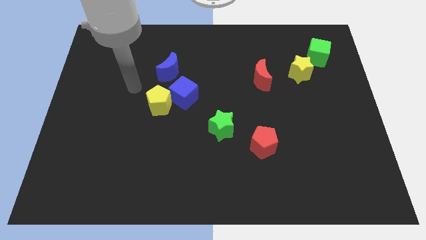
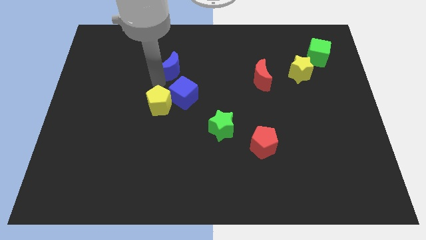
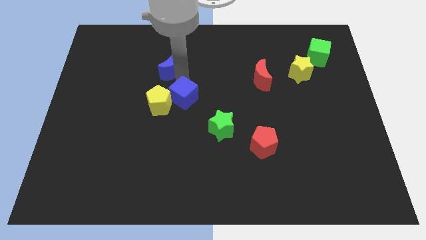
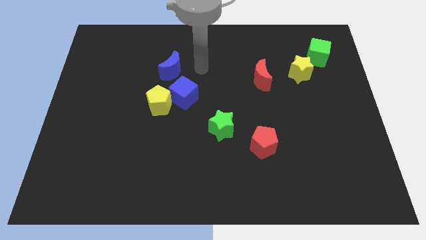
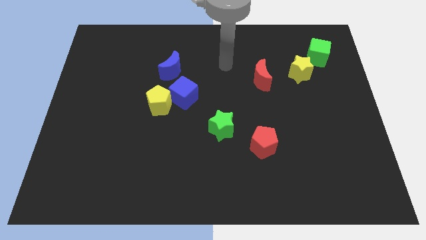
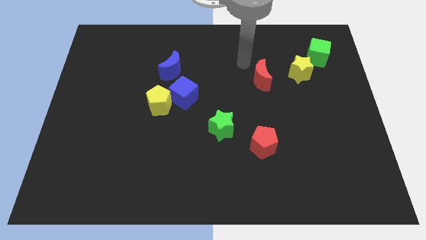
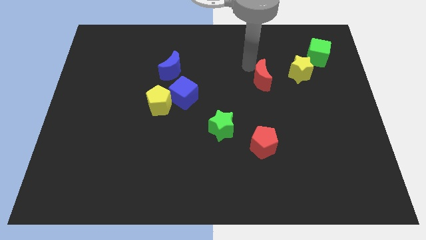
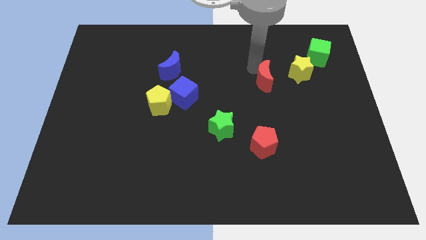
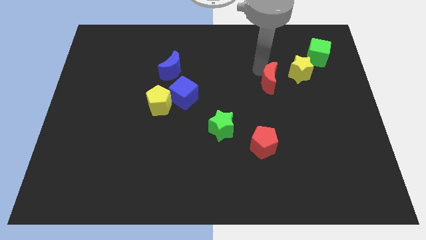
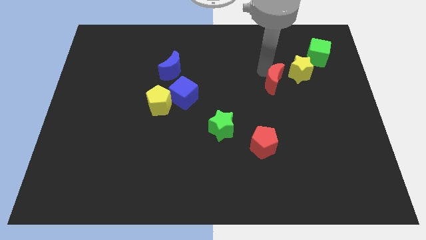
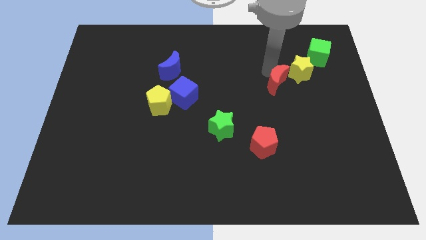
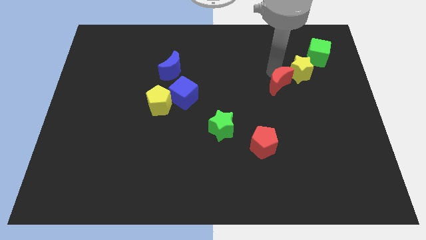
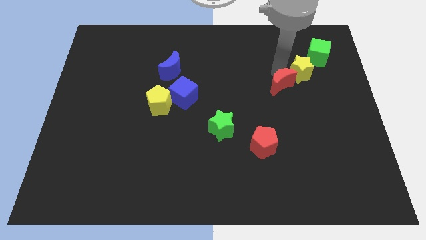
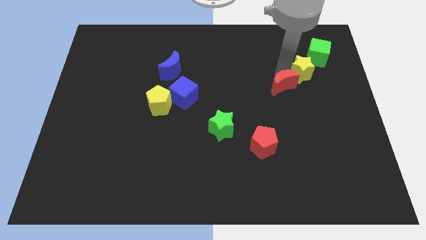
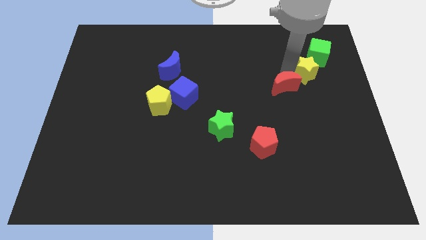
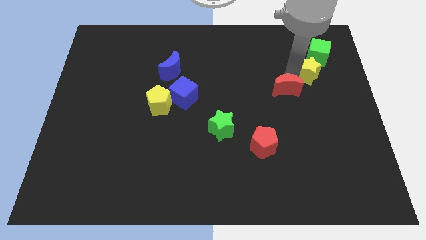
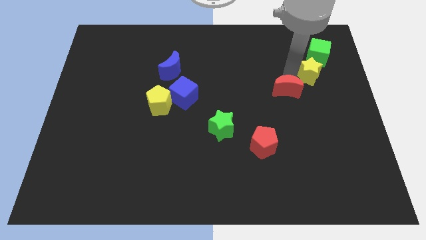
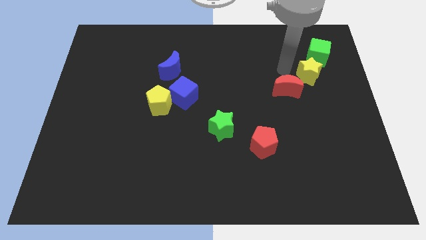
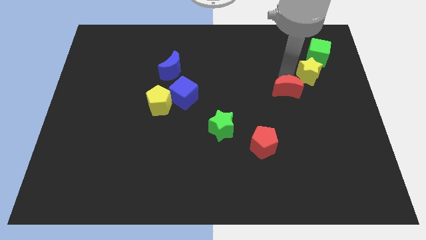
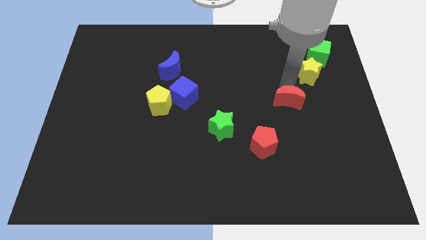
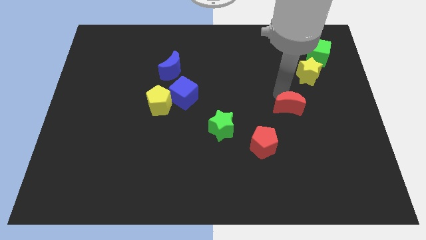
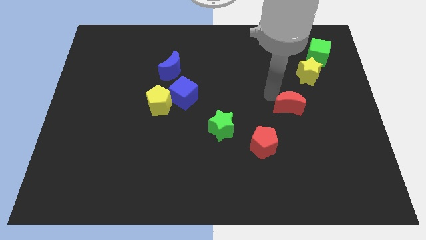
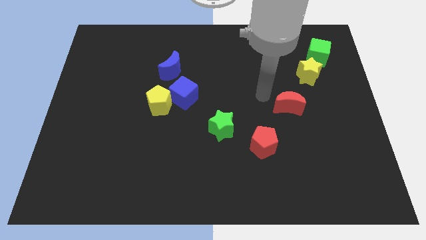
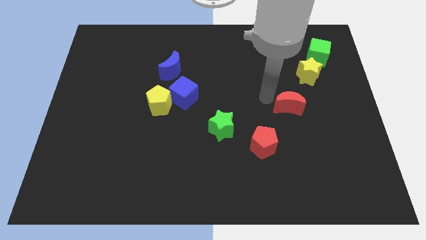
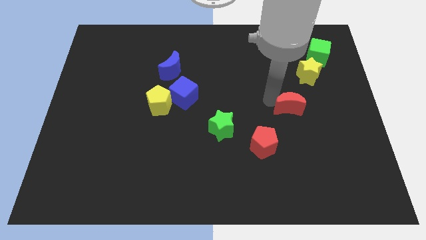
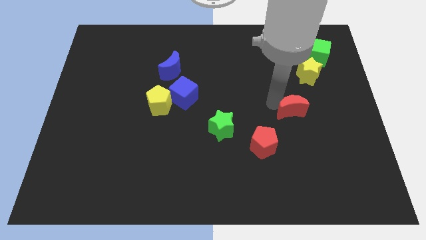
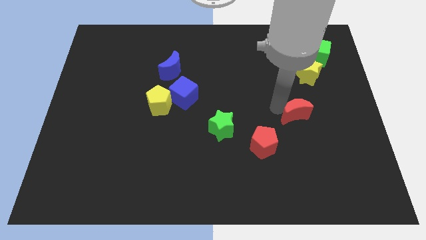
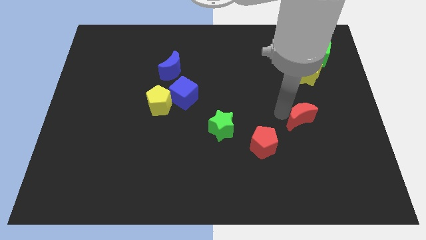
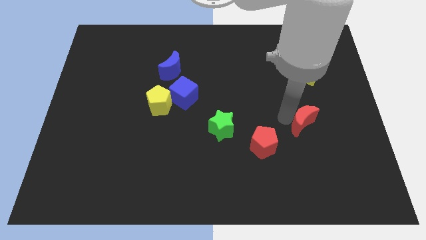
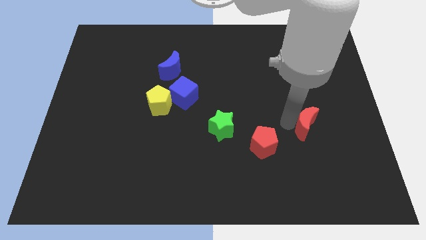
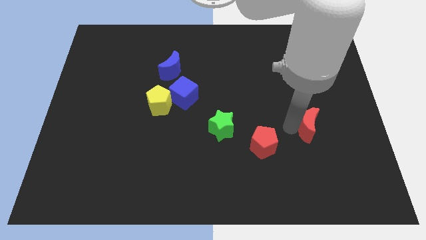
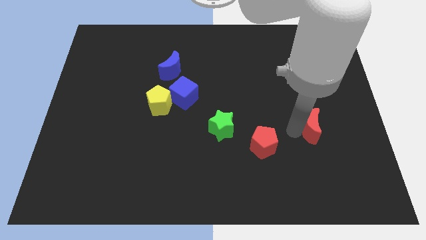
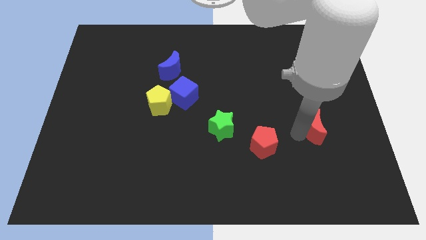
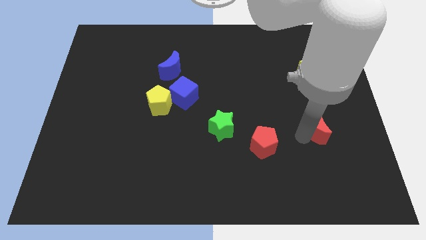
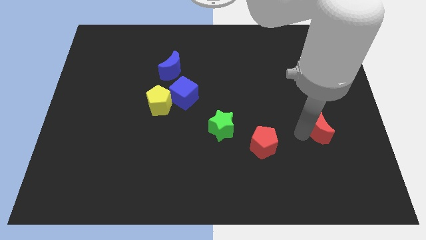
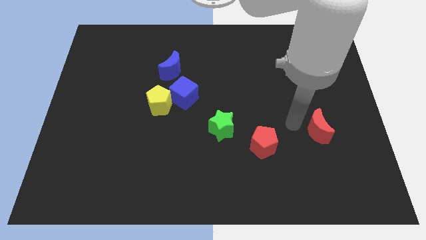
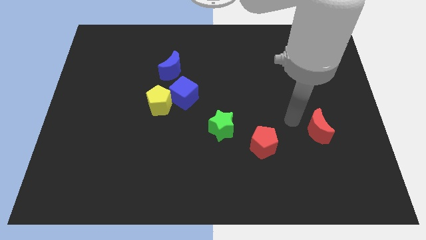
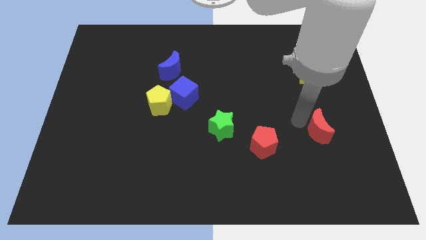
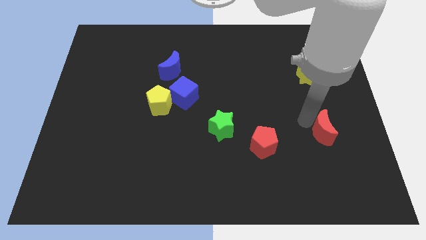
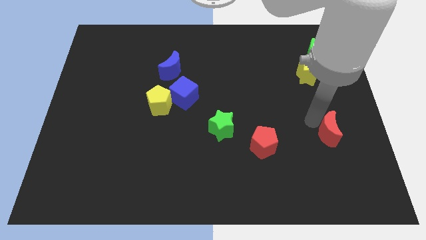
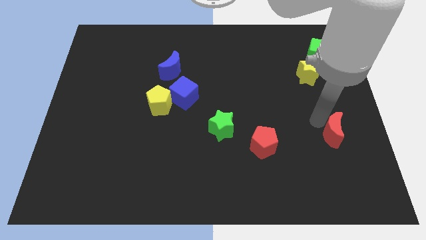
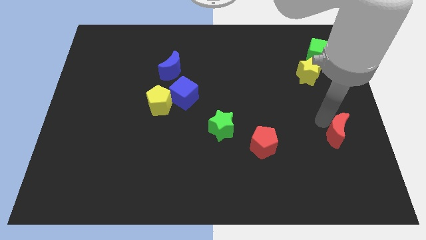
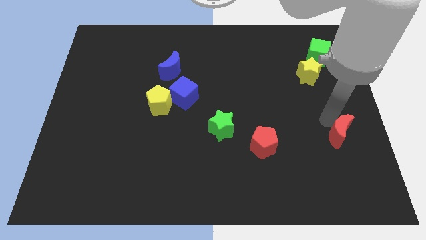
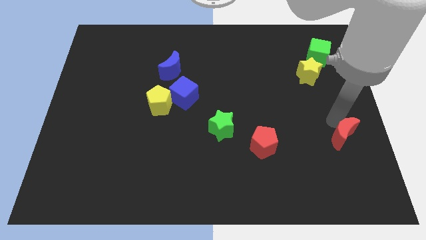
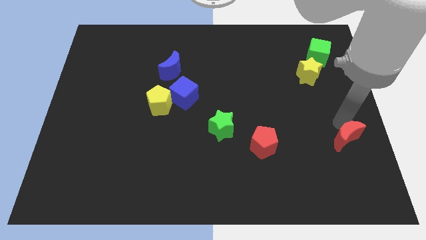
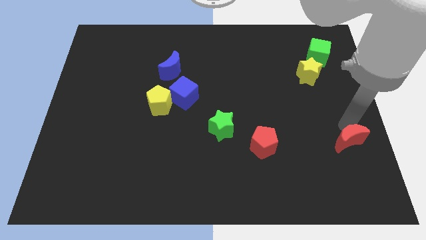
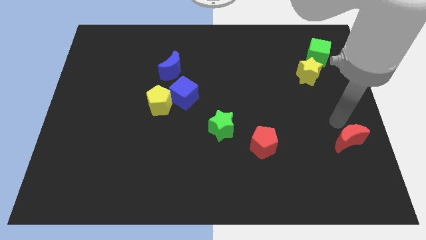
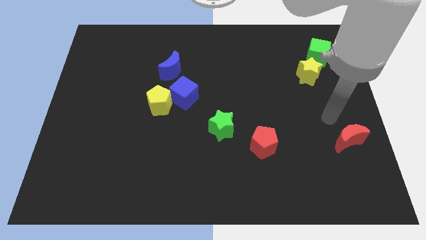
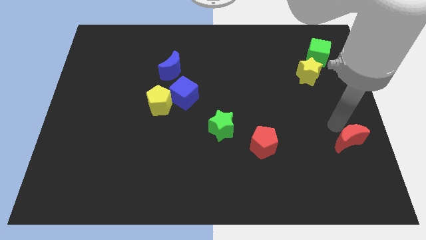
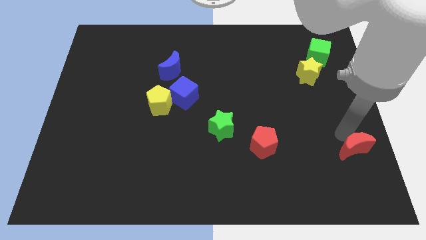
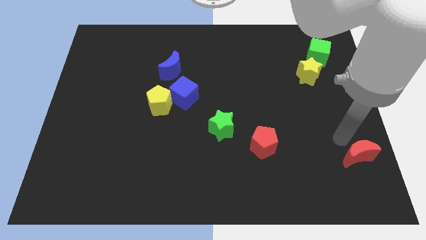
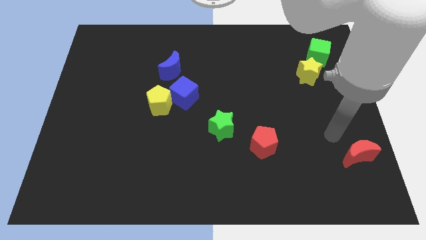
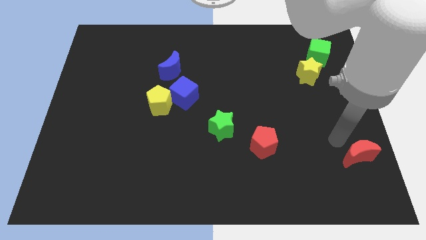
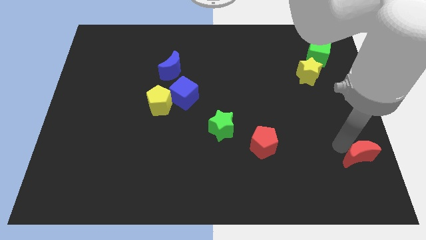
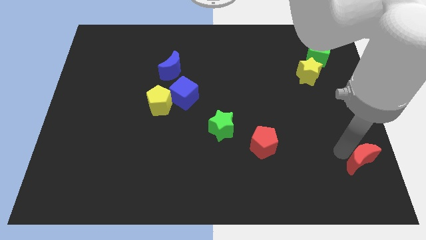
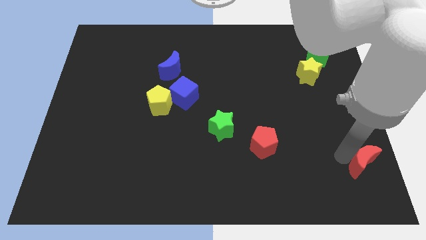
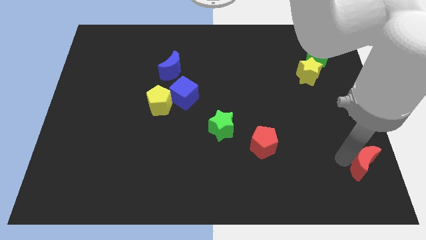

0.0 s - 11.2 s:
put the red moon to the bottom right of the board

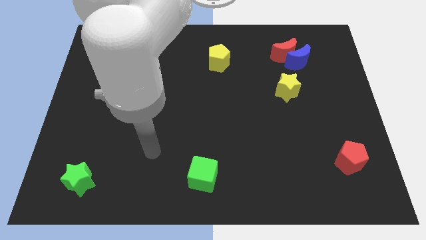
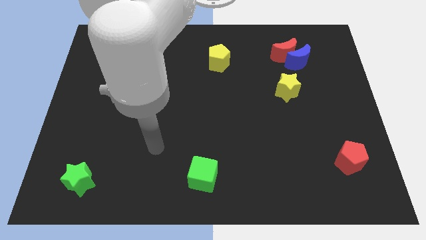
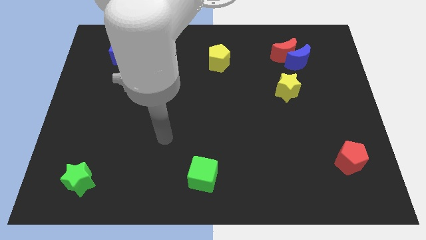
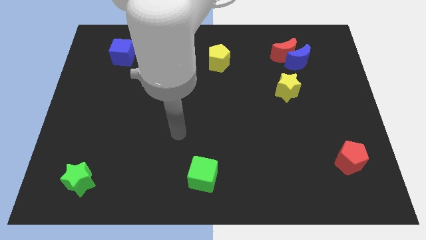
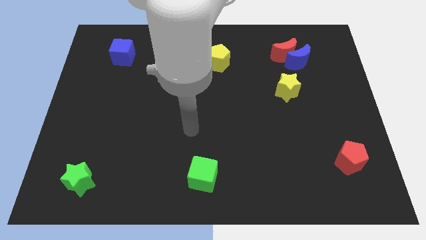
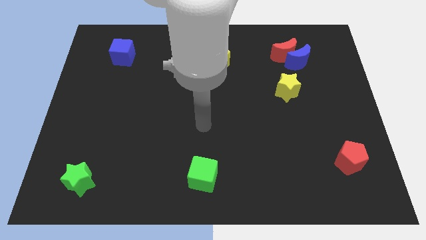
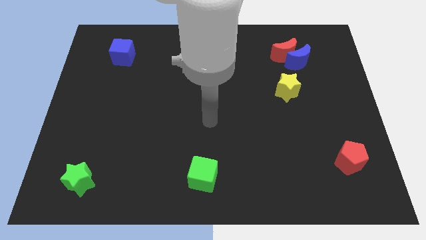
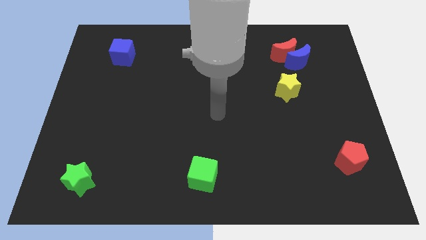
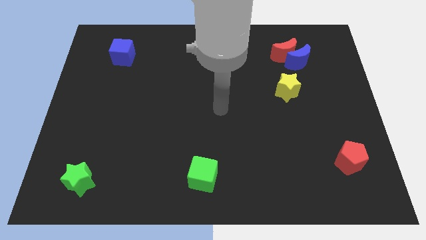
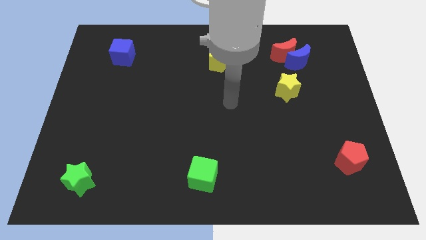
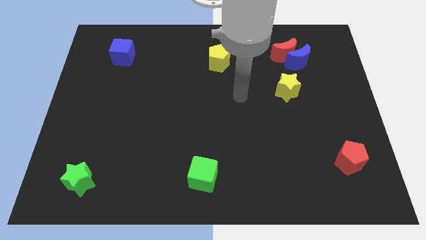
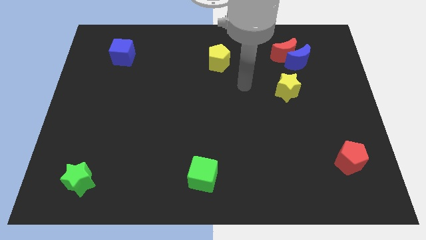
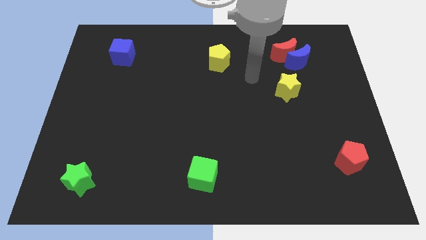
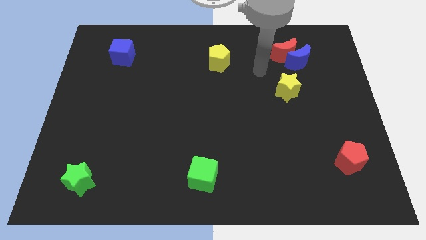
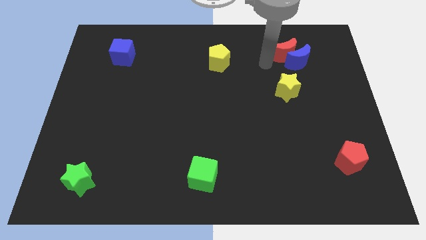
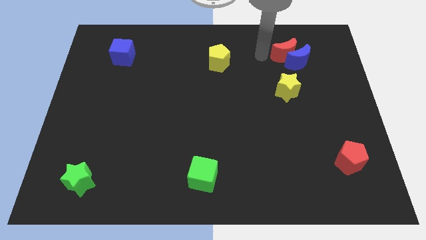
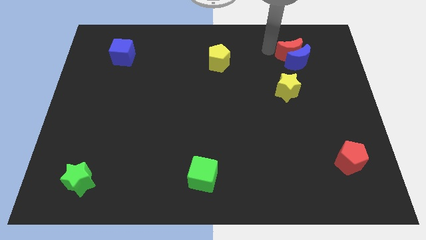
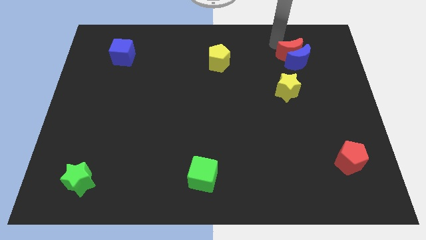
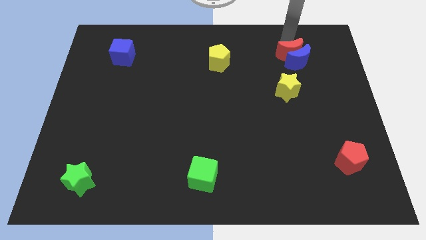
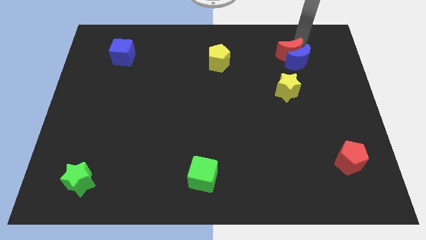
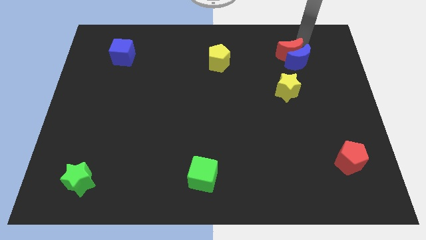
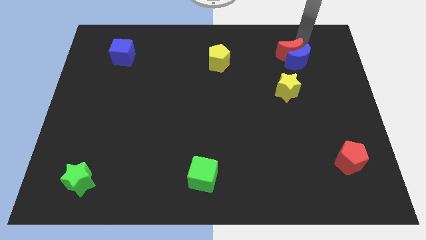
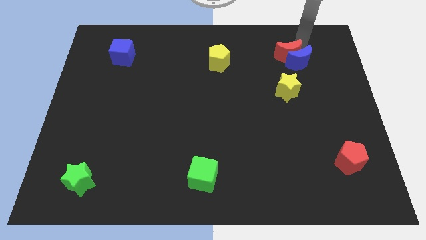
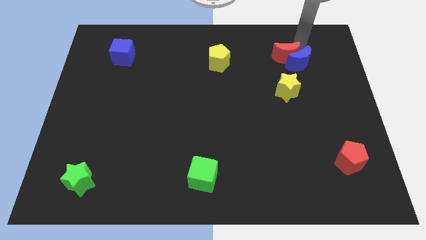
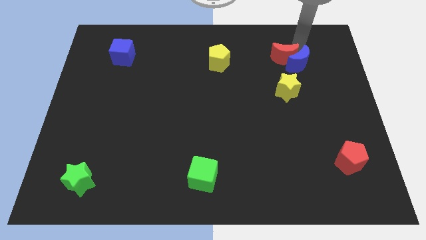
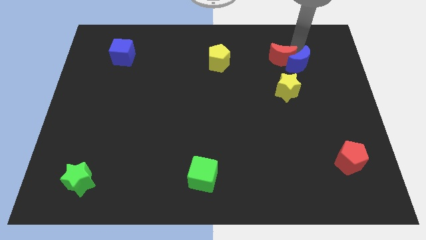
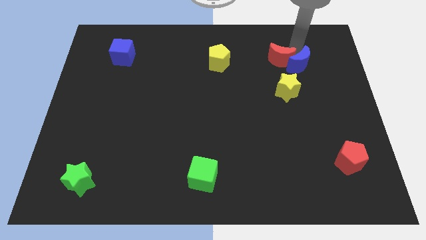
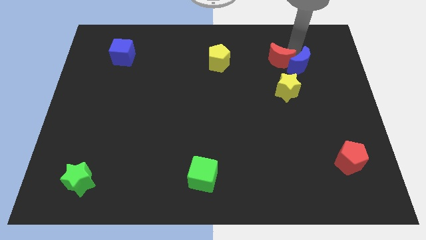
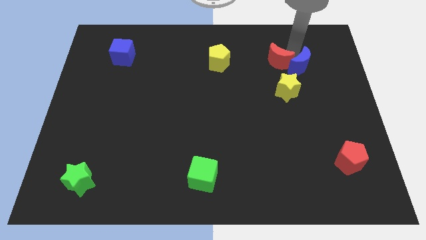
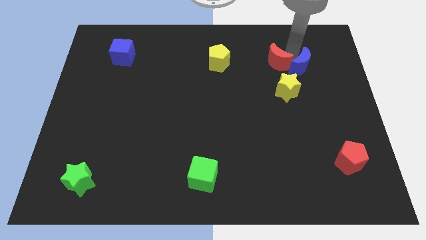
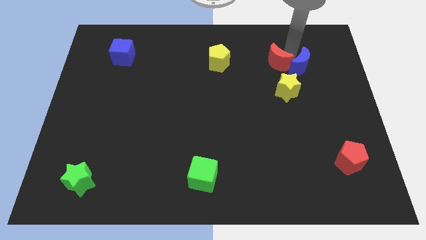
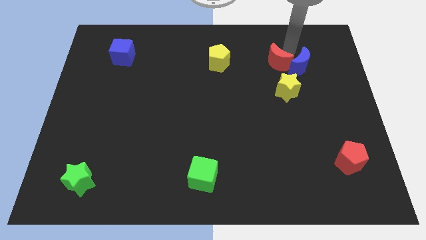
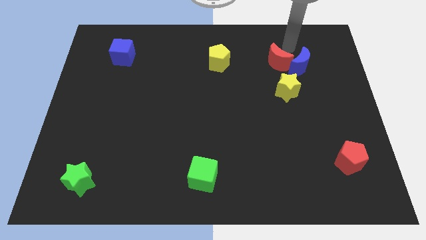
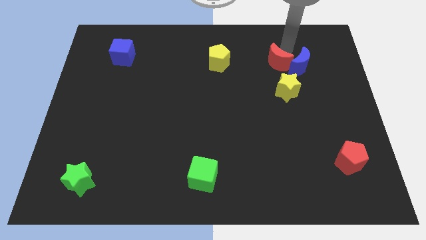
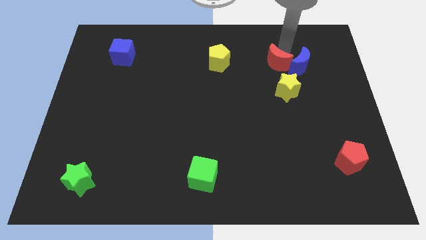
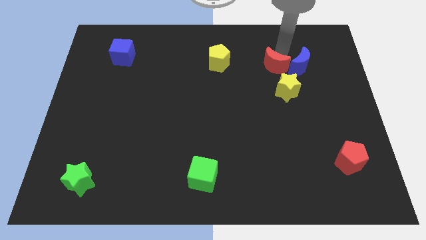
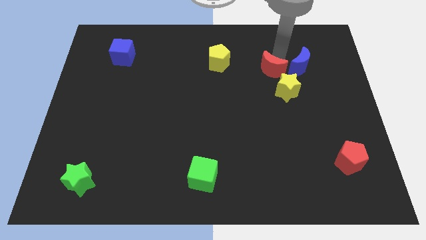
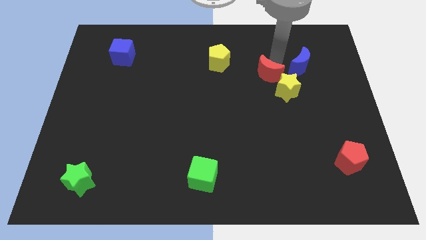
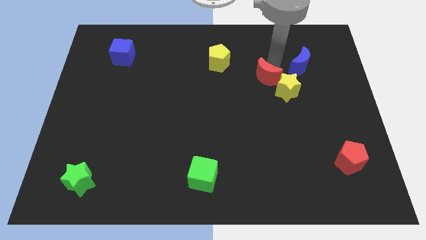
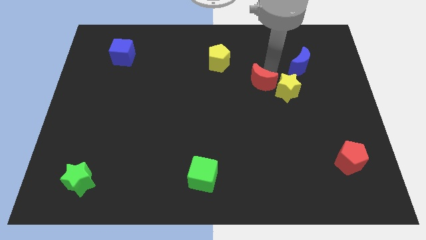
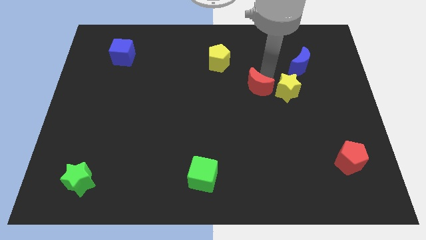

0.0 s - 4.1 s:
slide the red moon to the middle of the board
